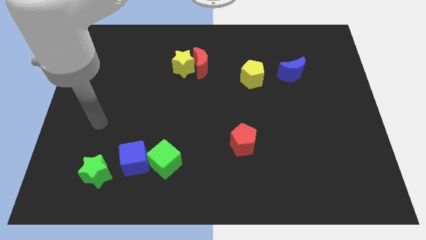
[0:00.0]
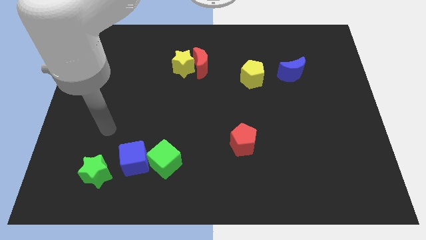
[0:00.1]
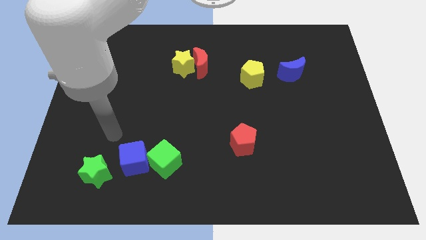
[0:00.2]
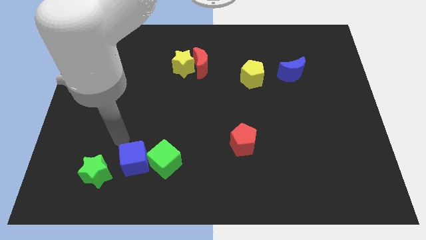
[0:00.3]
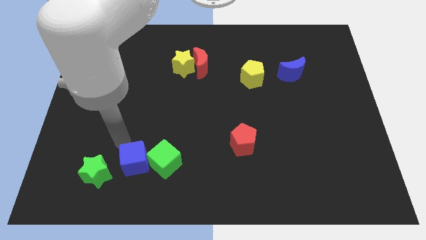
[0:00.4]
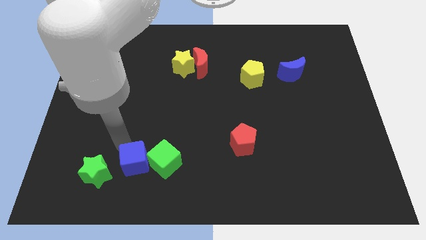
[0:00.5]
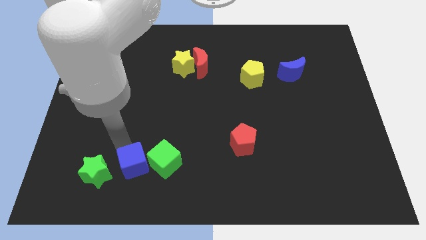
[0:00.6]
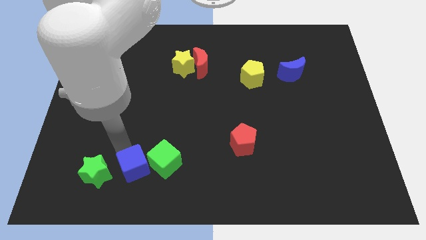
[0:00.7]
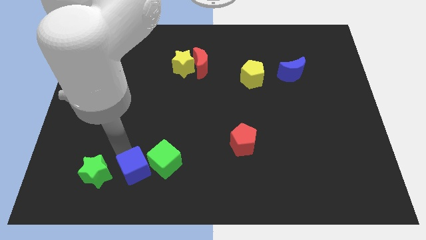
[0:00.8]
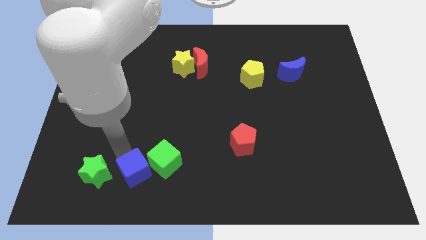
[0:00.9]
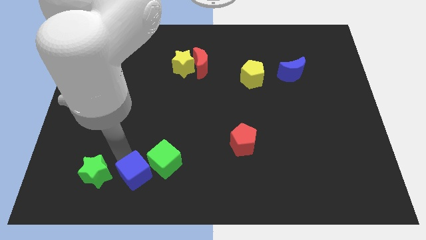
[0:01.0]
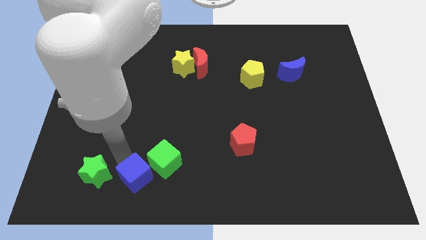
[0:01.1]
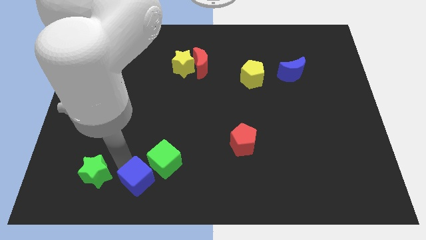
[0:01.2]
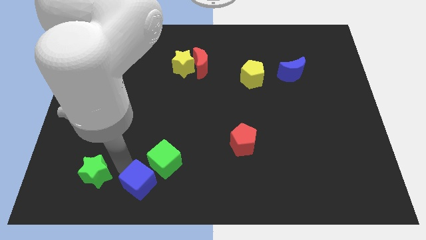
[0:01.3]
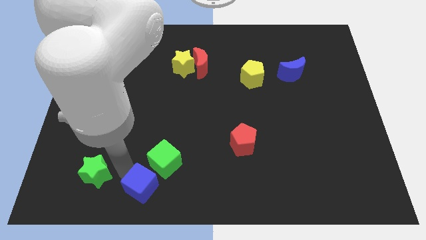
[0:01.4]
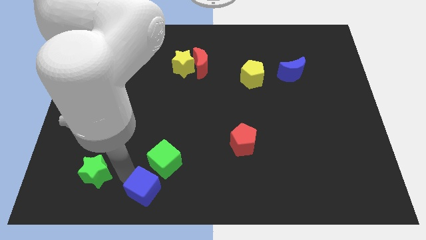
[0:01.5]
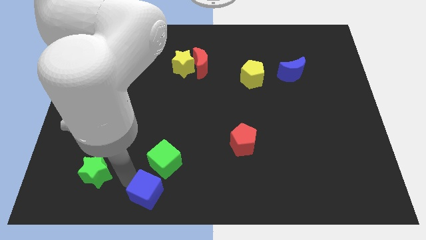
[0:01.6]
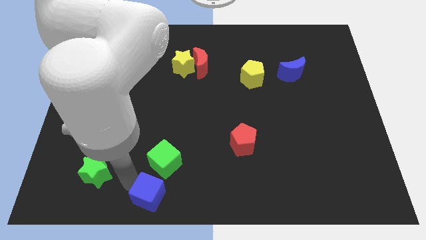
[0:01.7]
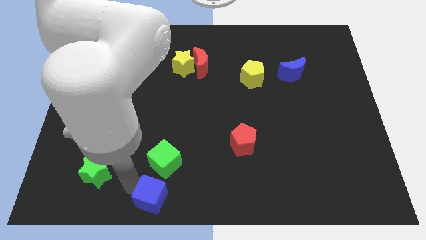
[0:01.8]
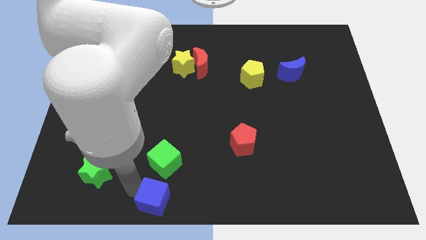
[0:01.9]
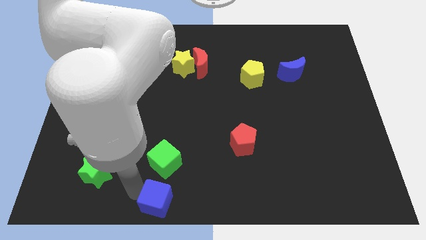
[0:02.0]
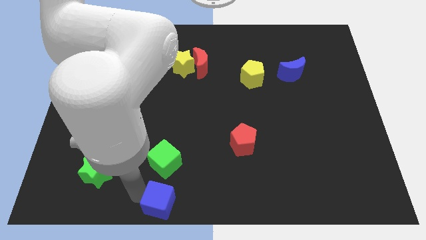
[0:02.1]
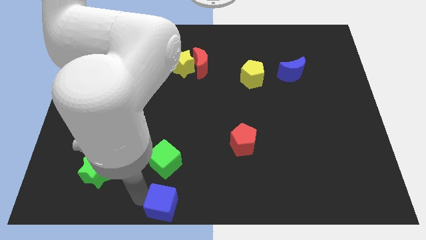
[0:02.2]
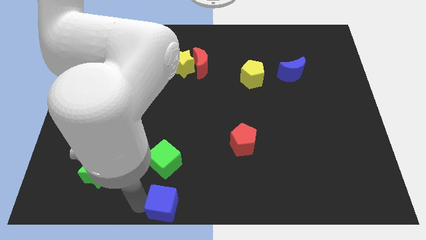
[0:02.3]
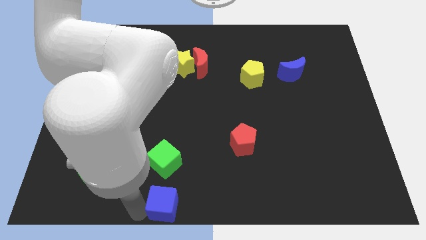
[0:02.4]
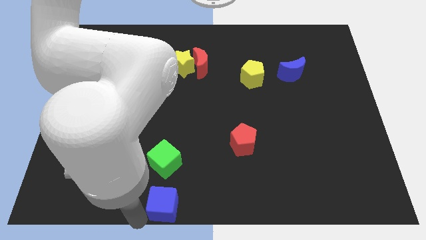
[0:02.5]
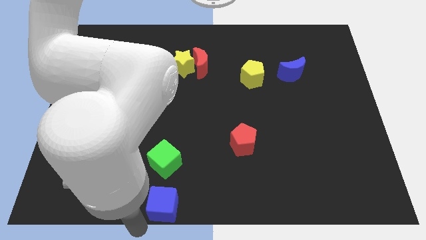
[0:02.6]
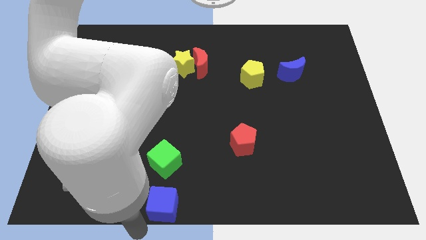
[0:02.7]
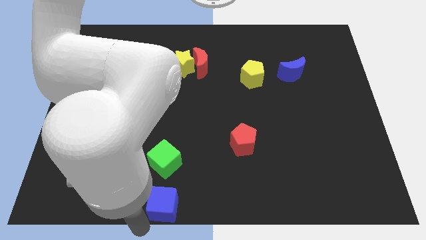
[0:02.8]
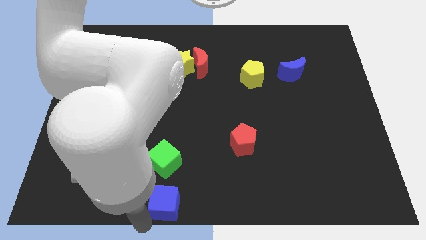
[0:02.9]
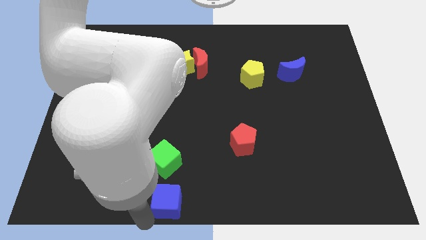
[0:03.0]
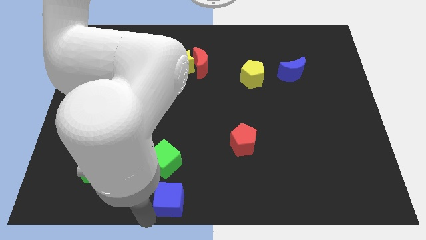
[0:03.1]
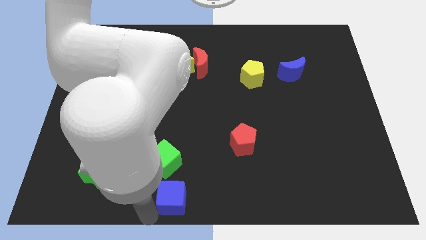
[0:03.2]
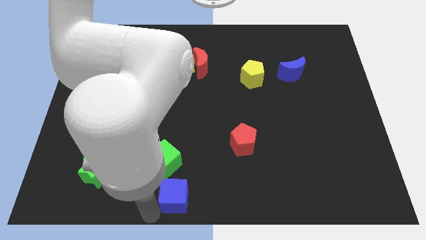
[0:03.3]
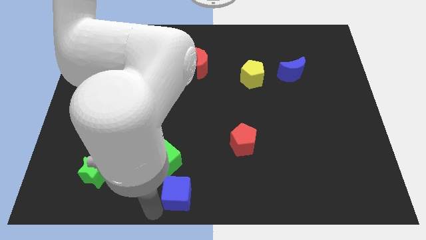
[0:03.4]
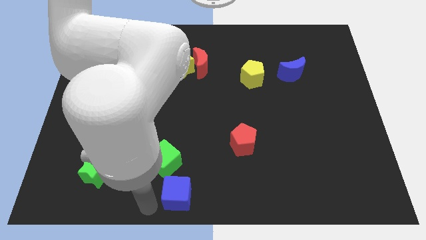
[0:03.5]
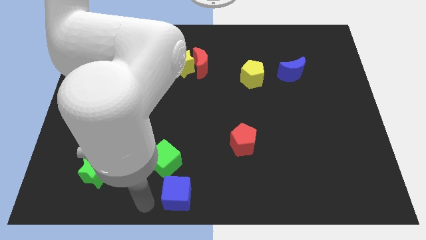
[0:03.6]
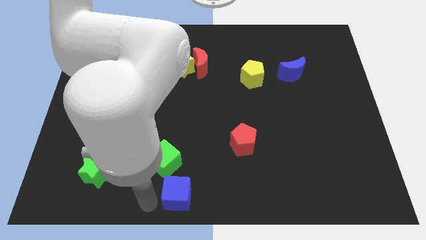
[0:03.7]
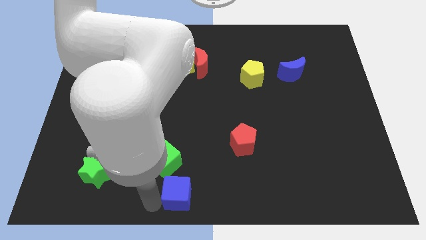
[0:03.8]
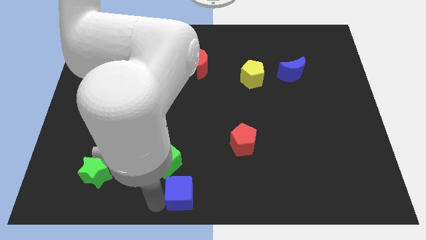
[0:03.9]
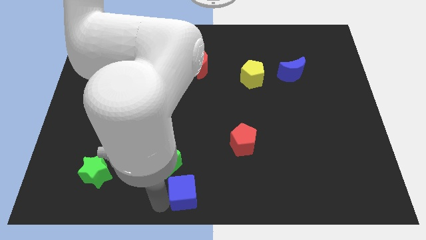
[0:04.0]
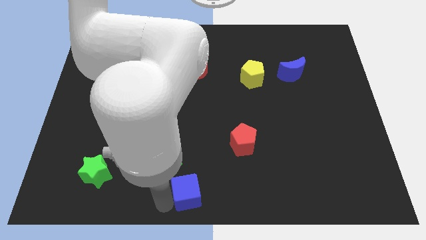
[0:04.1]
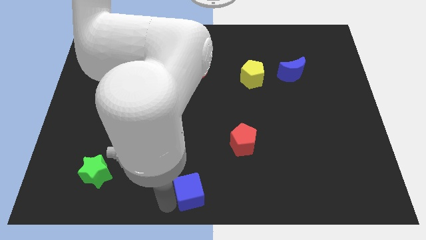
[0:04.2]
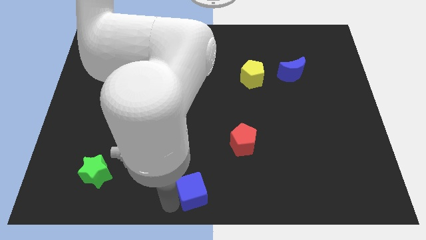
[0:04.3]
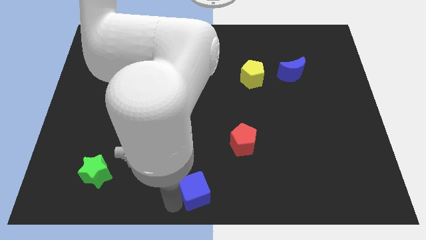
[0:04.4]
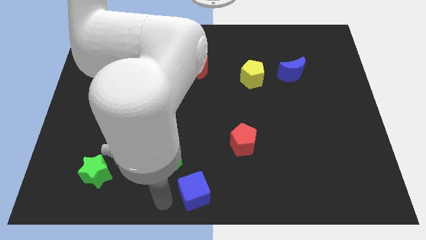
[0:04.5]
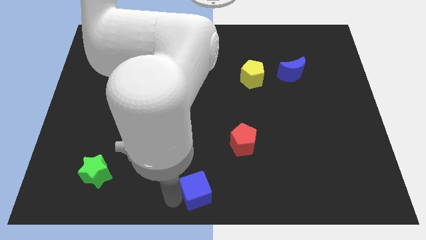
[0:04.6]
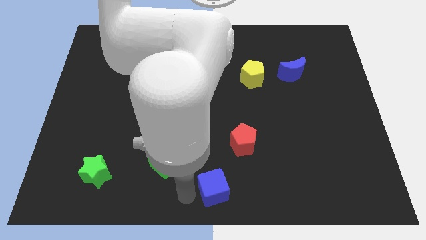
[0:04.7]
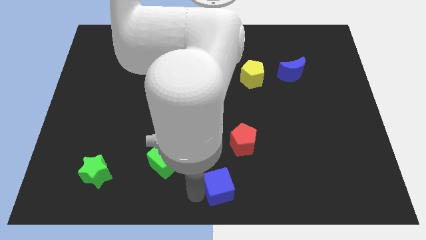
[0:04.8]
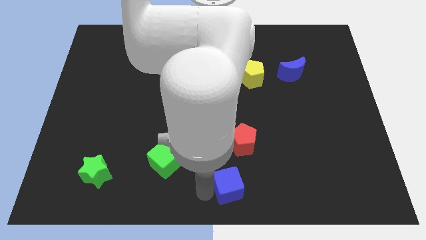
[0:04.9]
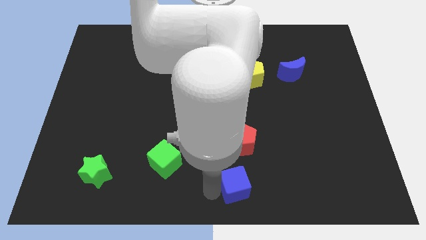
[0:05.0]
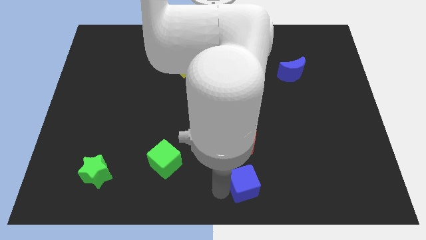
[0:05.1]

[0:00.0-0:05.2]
slide the blue cube to the right

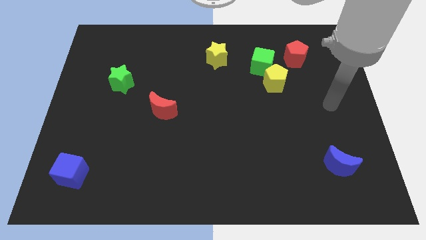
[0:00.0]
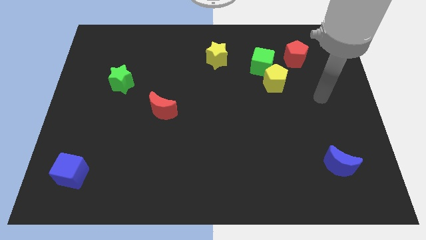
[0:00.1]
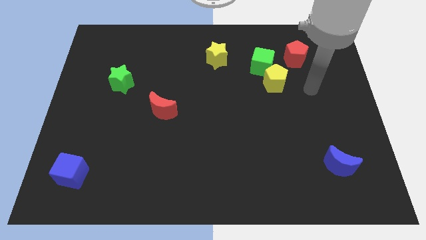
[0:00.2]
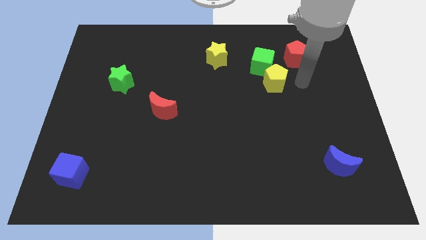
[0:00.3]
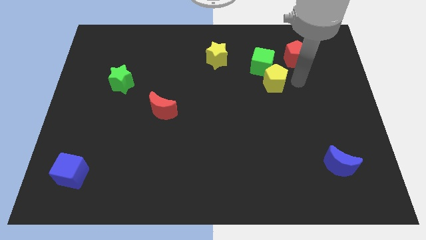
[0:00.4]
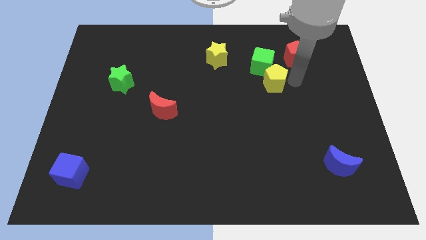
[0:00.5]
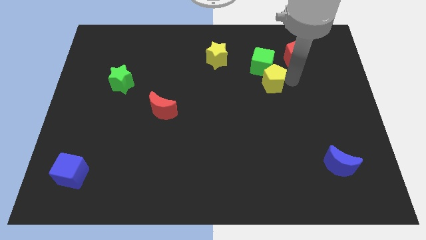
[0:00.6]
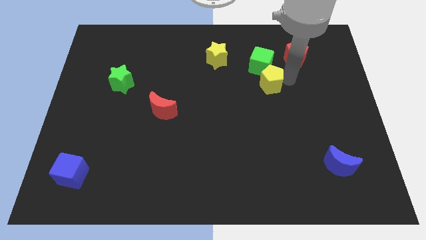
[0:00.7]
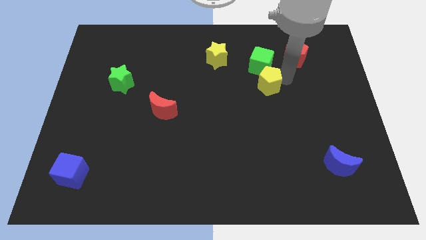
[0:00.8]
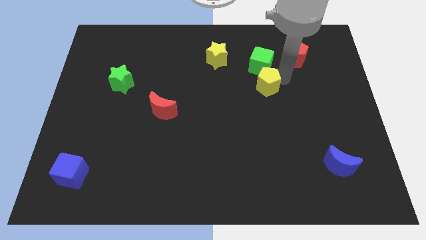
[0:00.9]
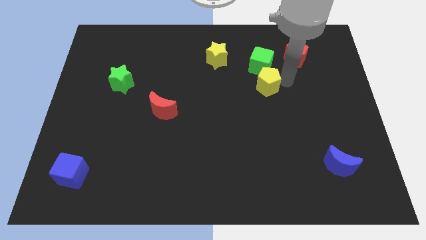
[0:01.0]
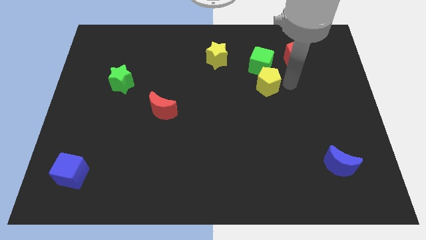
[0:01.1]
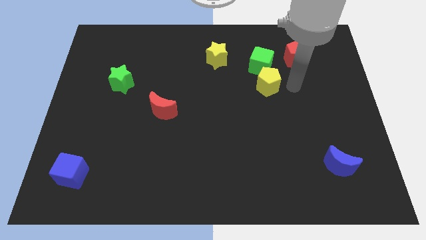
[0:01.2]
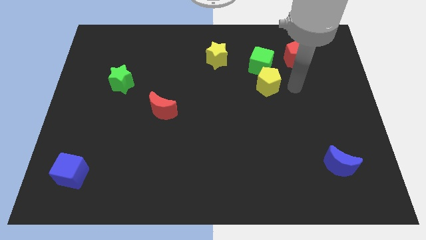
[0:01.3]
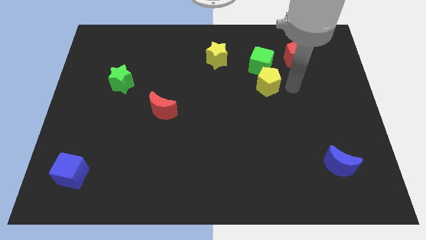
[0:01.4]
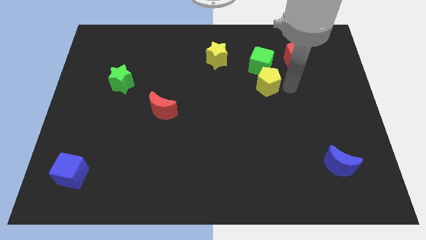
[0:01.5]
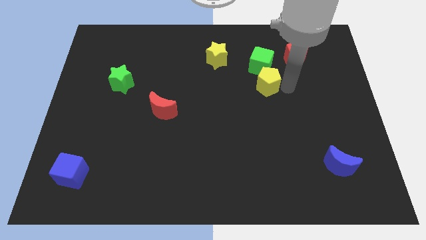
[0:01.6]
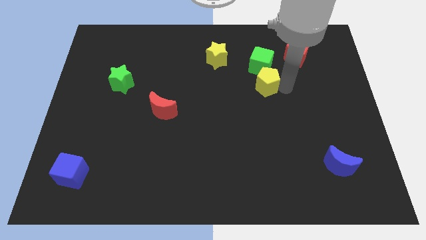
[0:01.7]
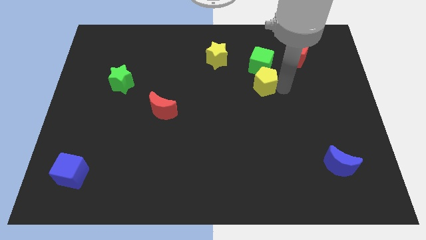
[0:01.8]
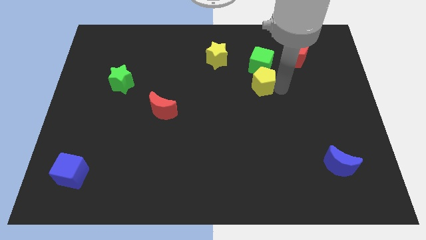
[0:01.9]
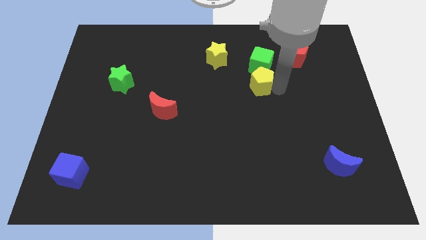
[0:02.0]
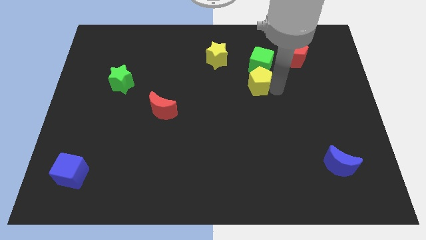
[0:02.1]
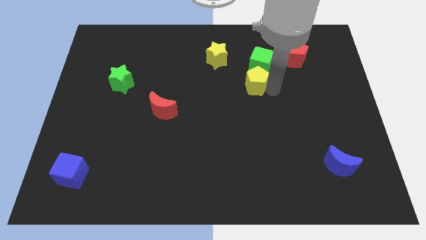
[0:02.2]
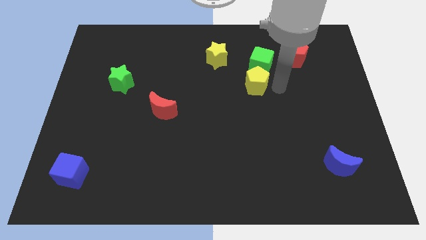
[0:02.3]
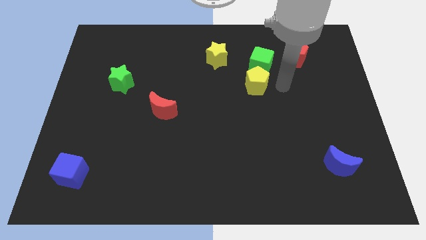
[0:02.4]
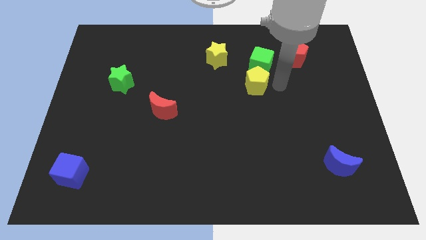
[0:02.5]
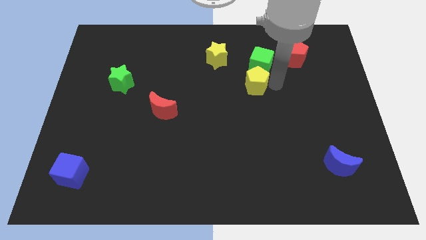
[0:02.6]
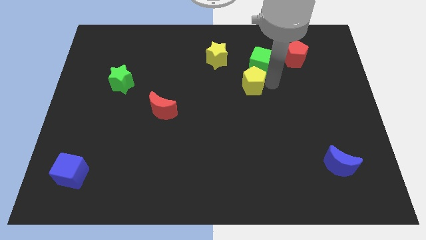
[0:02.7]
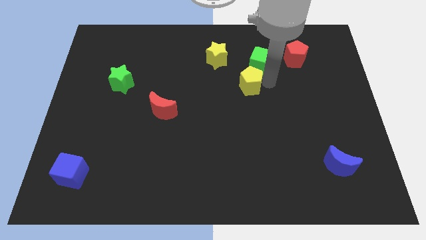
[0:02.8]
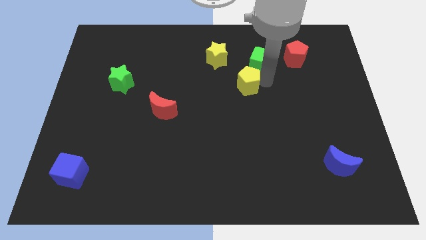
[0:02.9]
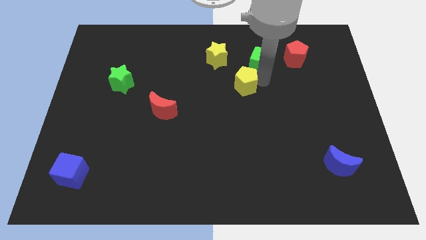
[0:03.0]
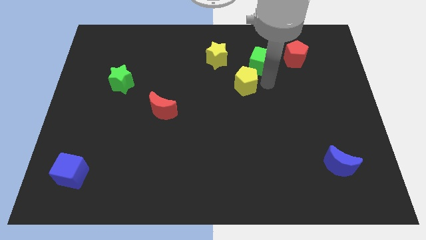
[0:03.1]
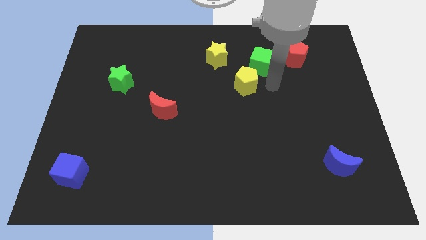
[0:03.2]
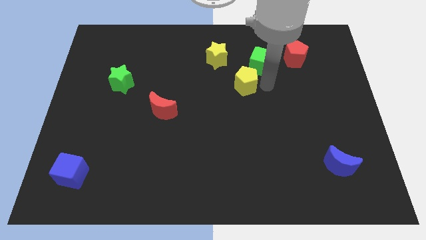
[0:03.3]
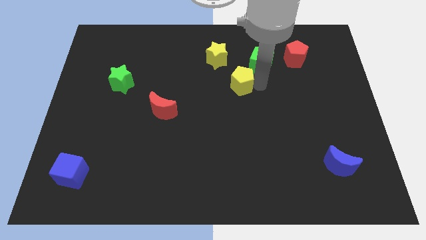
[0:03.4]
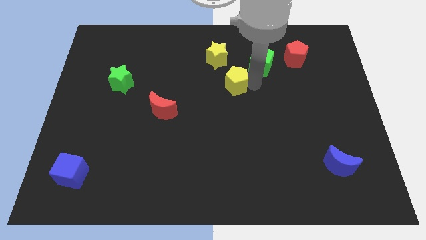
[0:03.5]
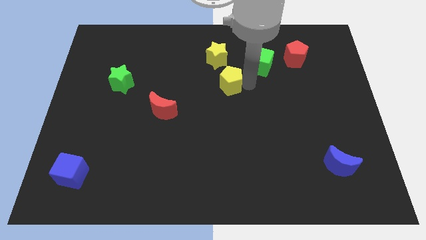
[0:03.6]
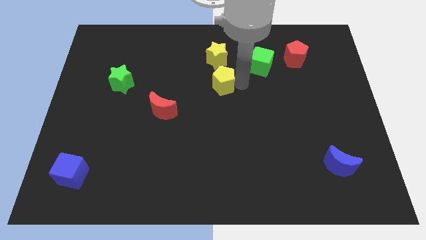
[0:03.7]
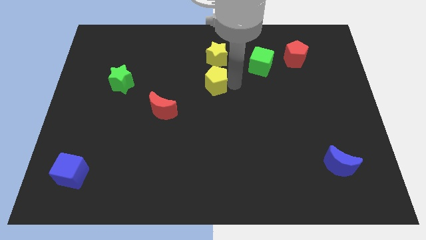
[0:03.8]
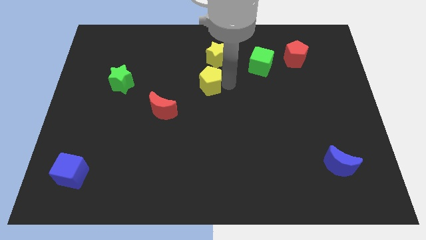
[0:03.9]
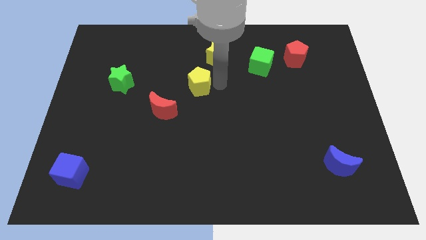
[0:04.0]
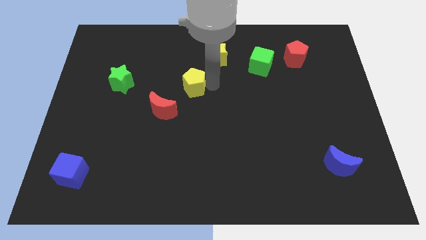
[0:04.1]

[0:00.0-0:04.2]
push the yellow pentagon to the left
